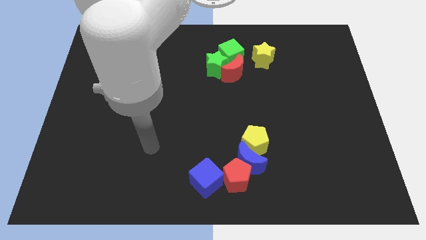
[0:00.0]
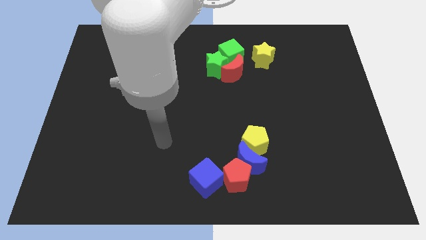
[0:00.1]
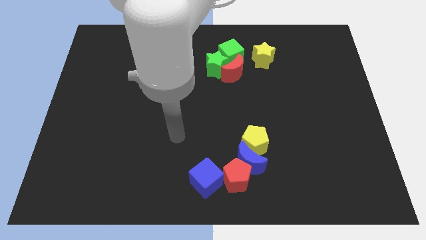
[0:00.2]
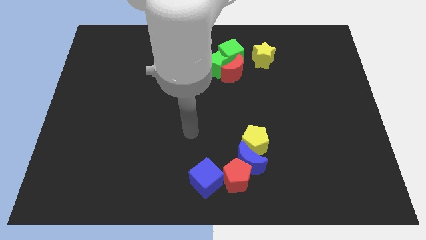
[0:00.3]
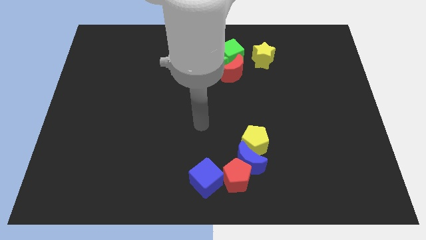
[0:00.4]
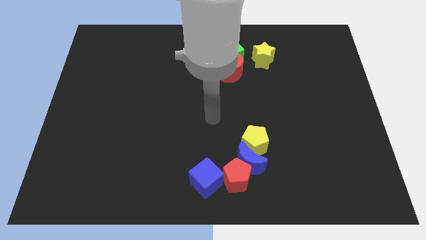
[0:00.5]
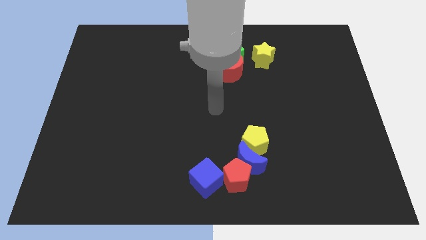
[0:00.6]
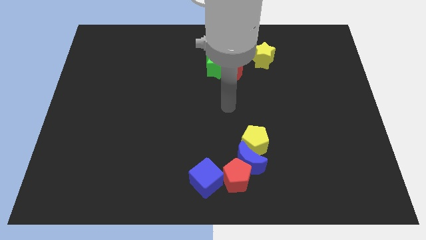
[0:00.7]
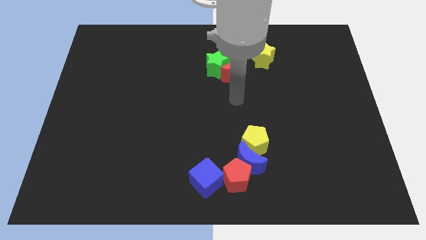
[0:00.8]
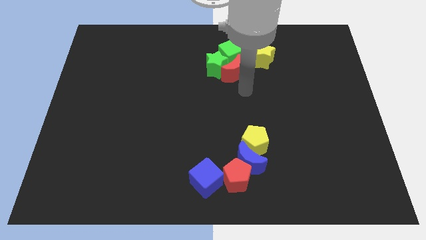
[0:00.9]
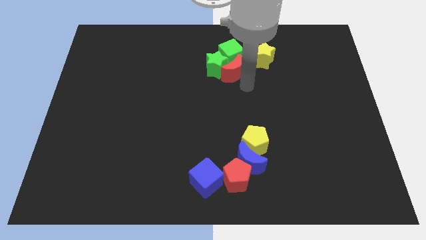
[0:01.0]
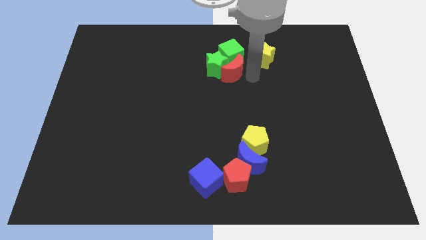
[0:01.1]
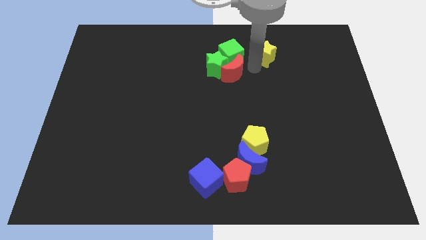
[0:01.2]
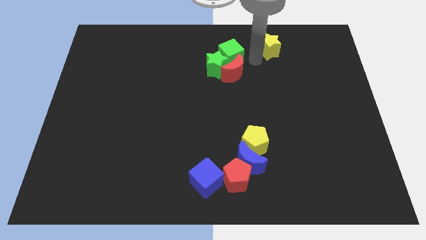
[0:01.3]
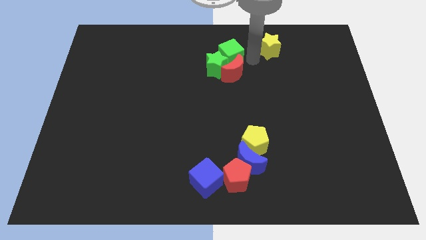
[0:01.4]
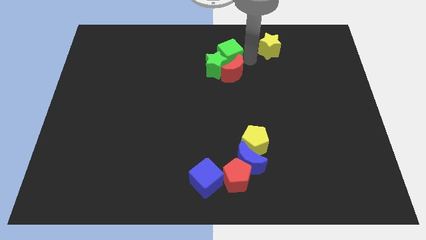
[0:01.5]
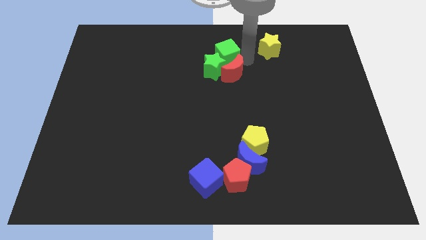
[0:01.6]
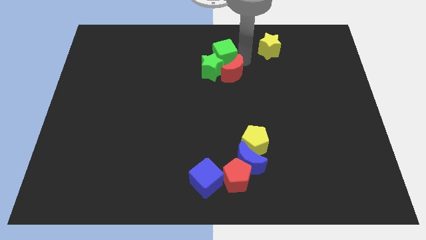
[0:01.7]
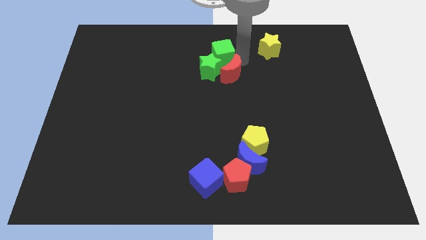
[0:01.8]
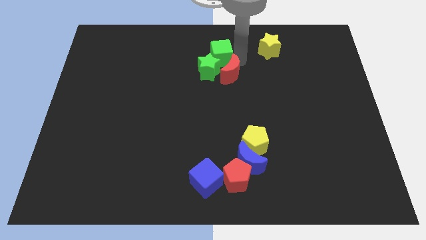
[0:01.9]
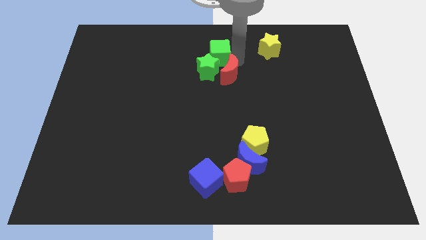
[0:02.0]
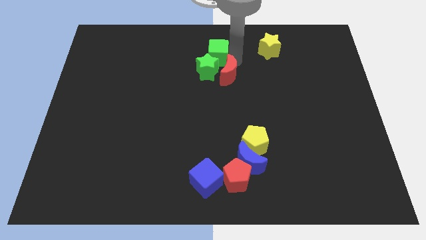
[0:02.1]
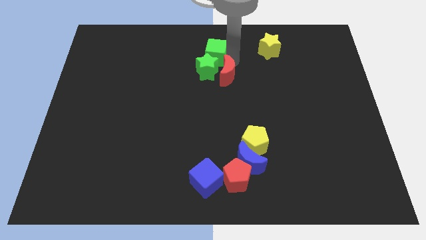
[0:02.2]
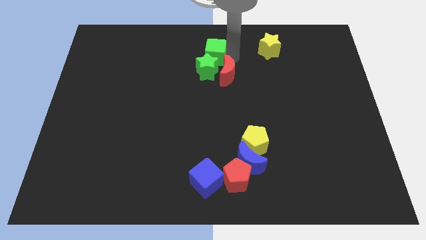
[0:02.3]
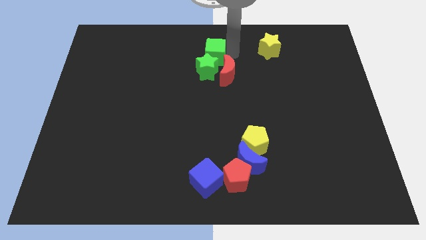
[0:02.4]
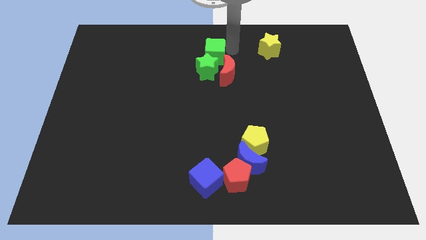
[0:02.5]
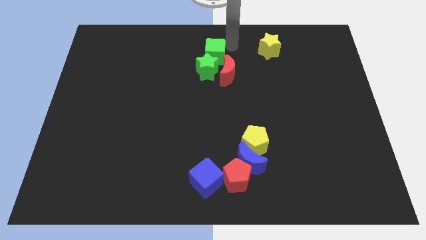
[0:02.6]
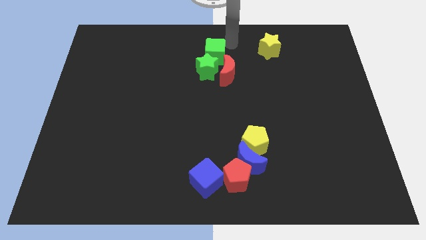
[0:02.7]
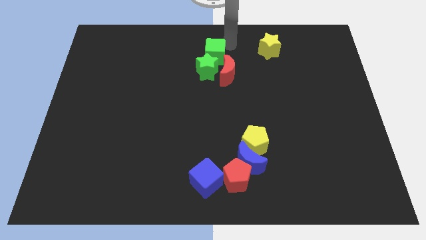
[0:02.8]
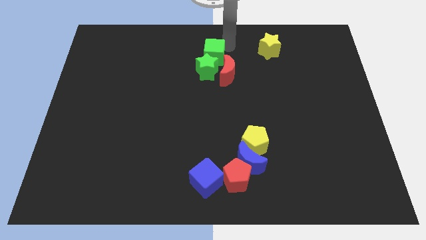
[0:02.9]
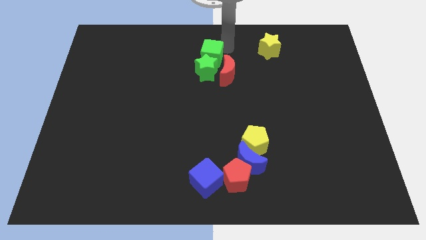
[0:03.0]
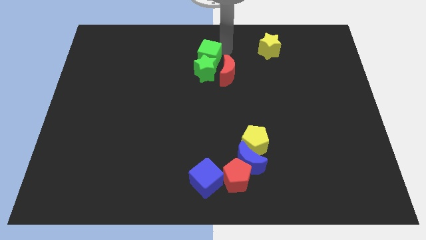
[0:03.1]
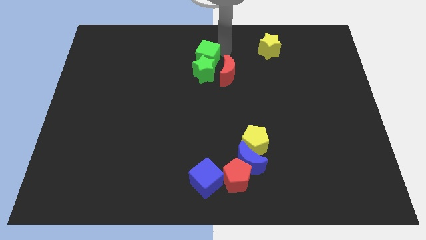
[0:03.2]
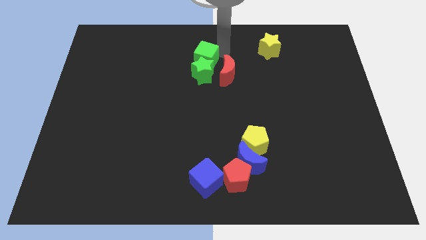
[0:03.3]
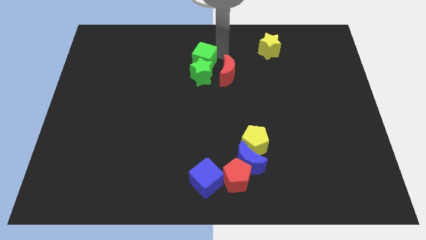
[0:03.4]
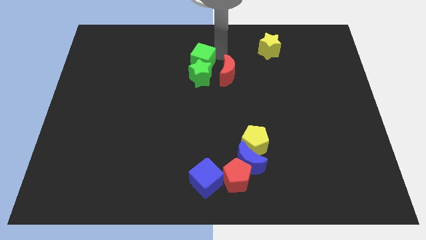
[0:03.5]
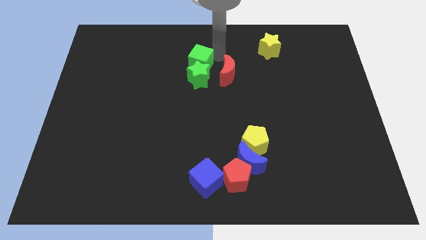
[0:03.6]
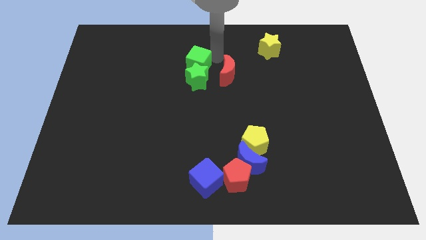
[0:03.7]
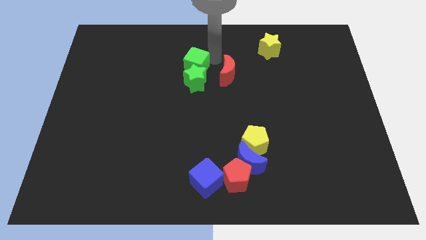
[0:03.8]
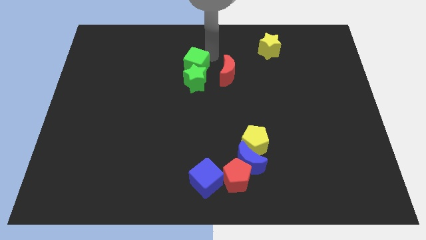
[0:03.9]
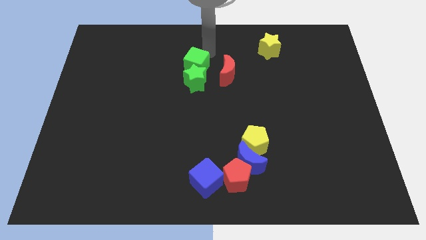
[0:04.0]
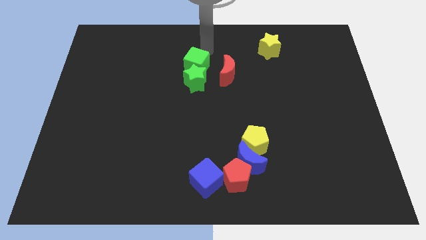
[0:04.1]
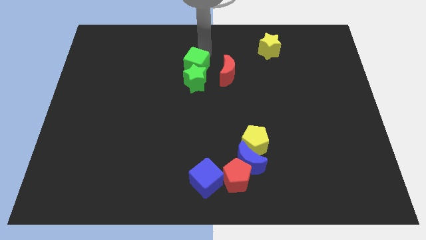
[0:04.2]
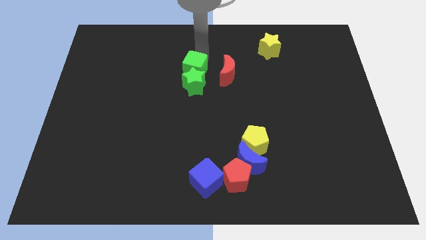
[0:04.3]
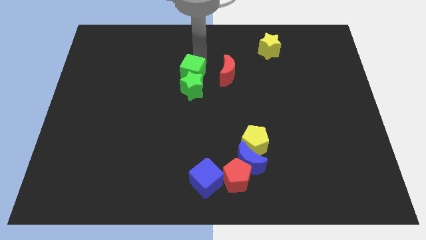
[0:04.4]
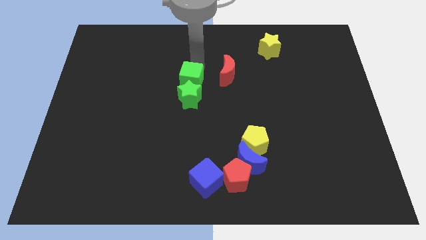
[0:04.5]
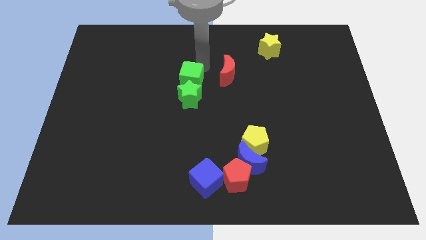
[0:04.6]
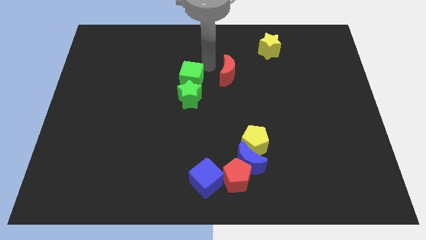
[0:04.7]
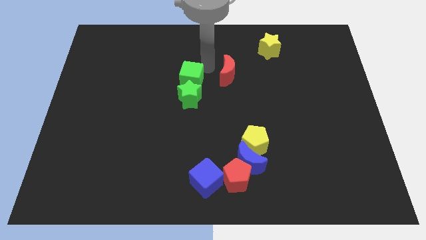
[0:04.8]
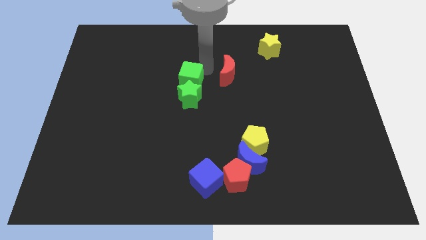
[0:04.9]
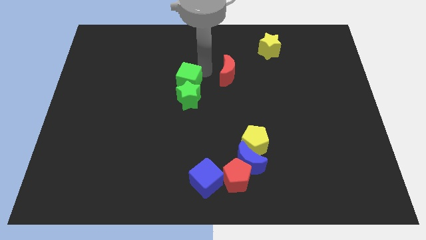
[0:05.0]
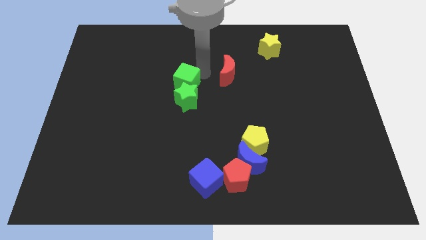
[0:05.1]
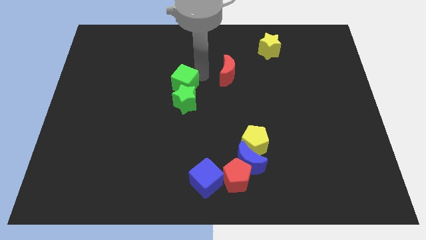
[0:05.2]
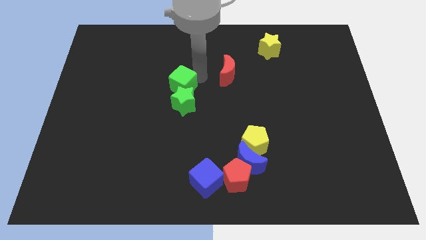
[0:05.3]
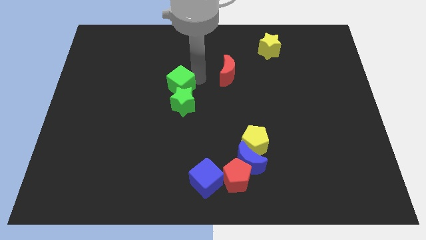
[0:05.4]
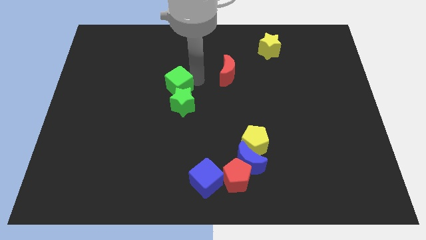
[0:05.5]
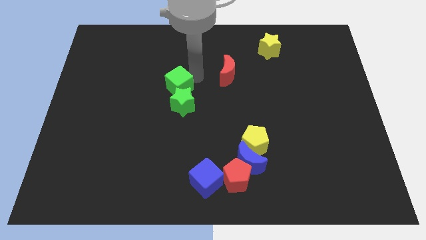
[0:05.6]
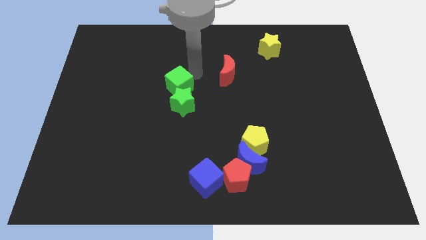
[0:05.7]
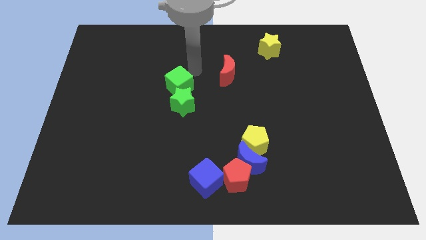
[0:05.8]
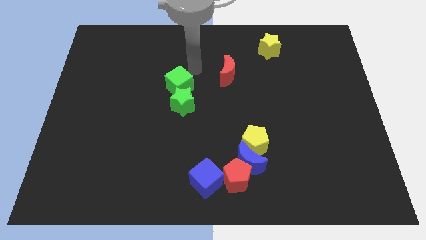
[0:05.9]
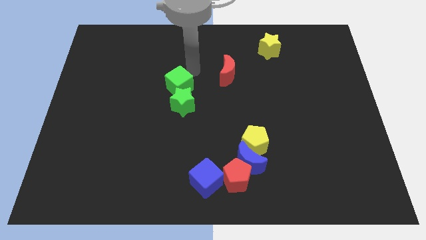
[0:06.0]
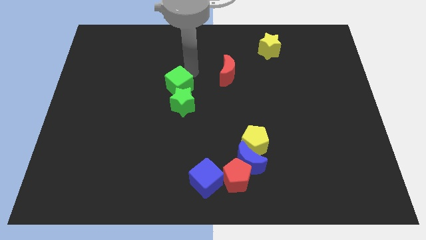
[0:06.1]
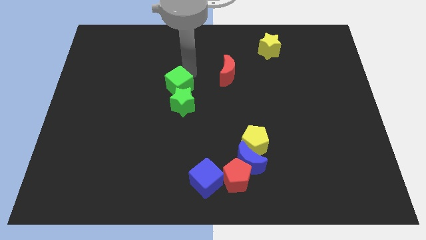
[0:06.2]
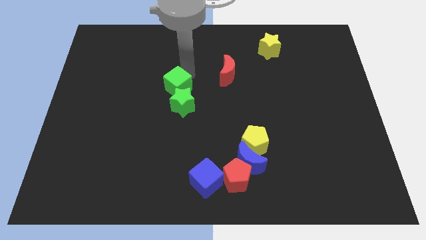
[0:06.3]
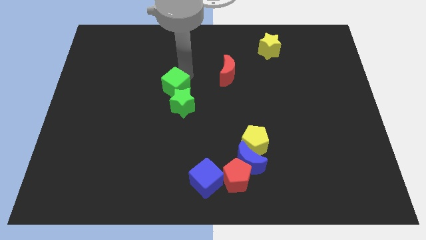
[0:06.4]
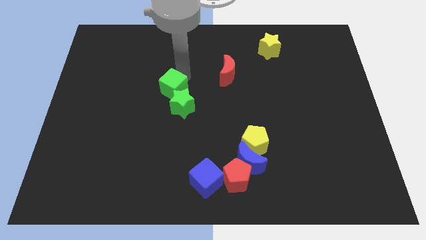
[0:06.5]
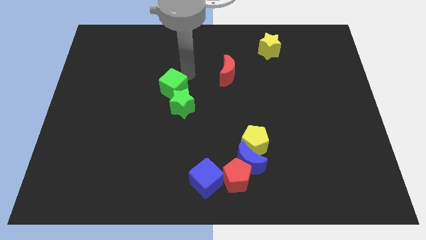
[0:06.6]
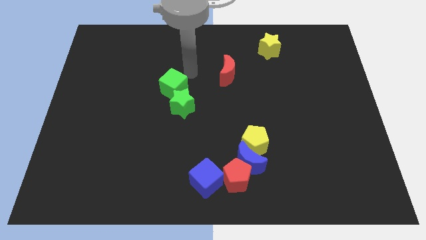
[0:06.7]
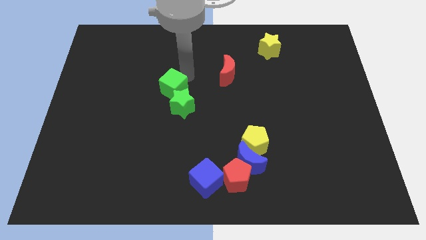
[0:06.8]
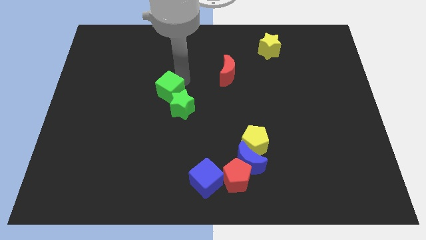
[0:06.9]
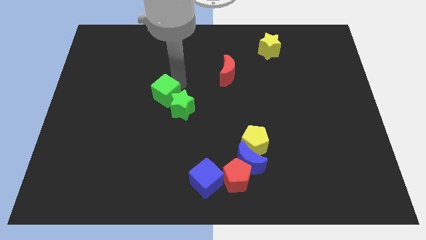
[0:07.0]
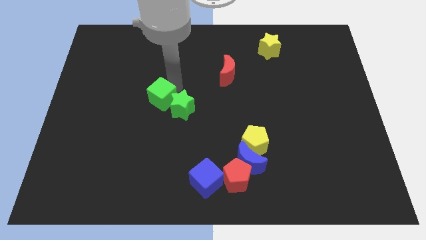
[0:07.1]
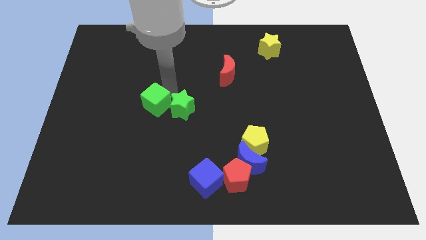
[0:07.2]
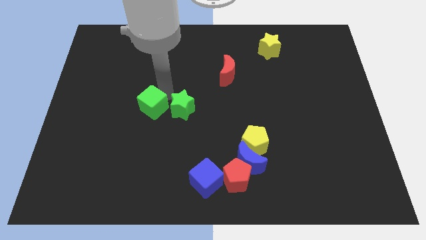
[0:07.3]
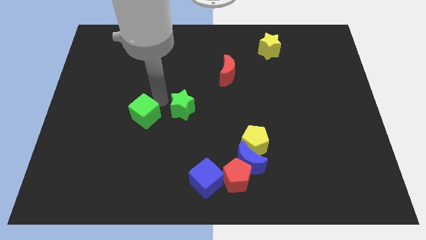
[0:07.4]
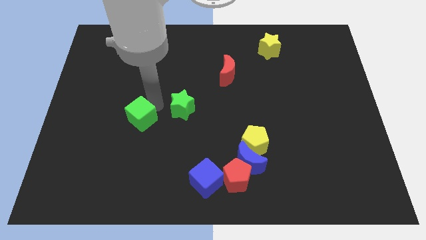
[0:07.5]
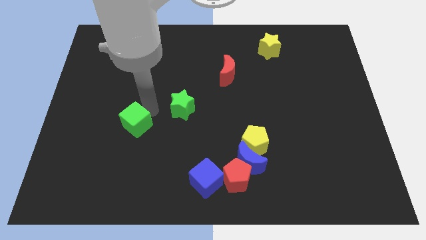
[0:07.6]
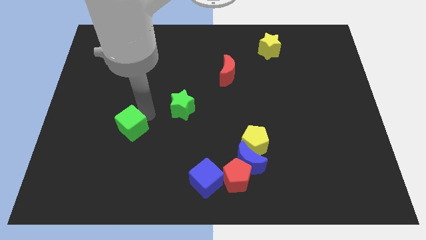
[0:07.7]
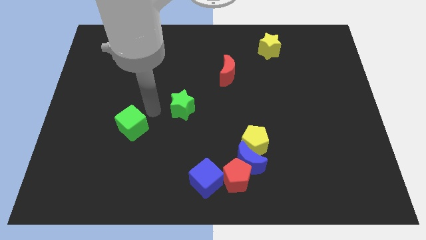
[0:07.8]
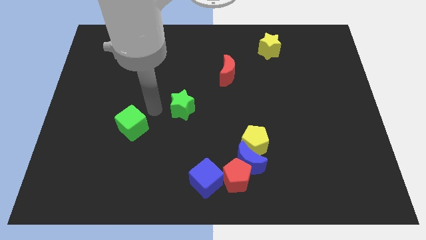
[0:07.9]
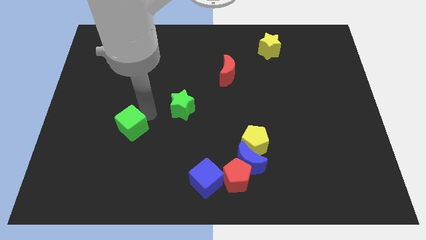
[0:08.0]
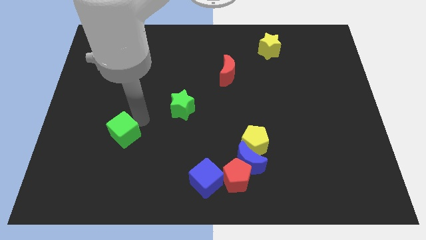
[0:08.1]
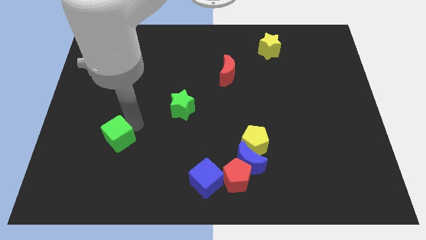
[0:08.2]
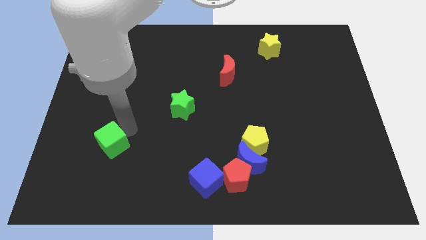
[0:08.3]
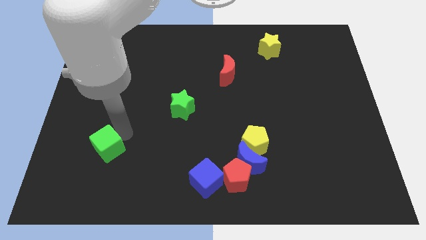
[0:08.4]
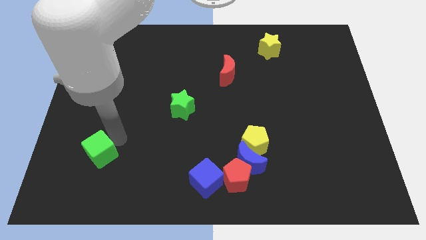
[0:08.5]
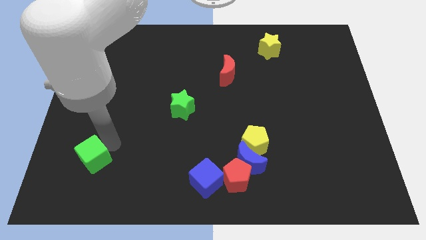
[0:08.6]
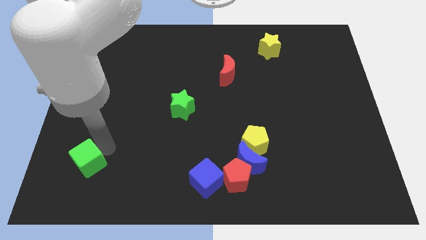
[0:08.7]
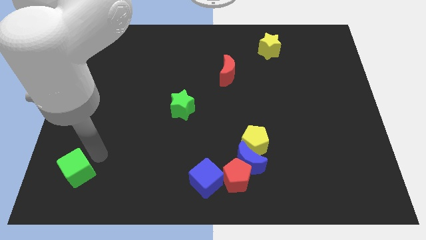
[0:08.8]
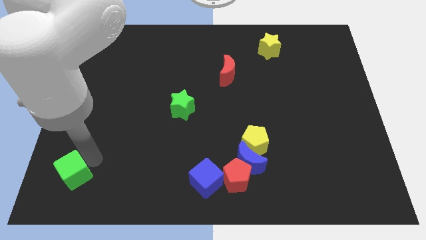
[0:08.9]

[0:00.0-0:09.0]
slide the green cube to the lower left corner
